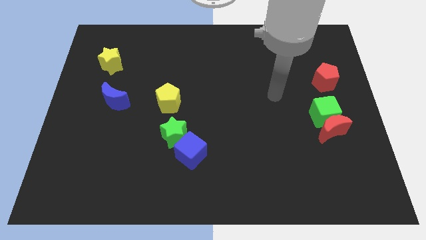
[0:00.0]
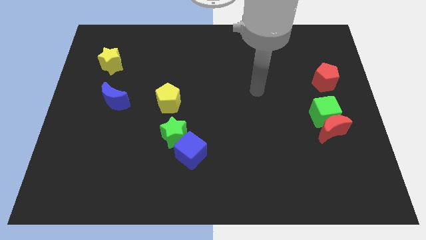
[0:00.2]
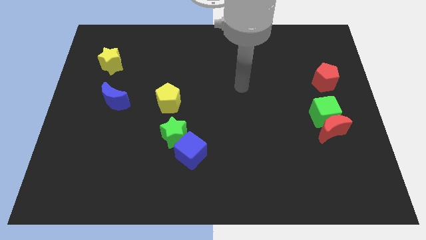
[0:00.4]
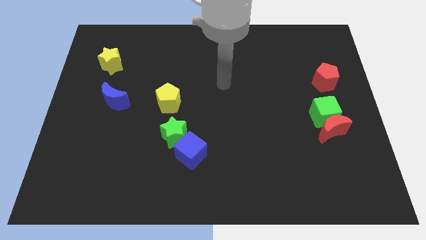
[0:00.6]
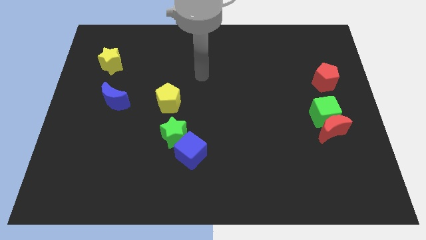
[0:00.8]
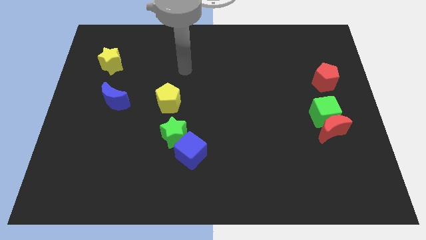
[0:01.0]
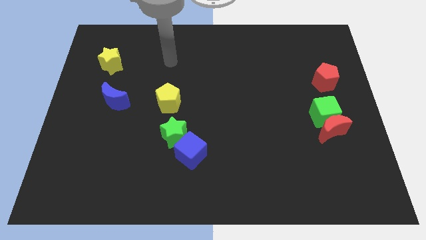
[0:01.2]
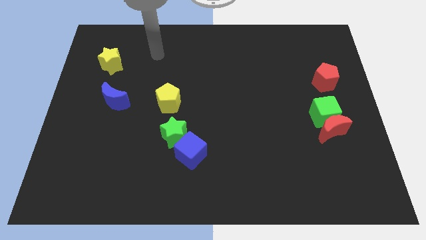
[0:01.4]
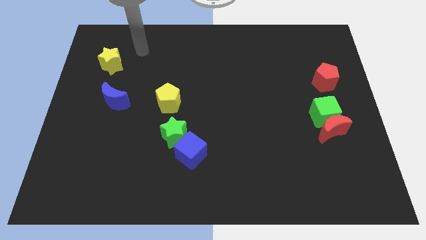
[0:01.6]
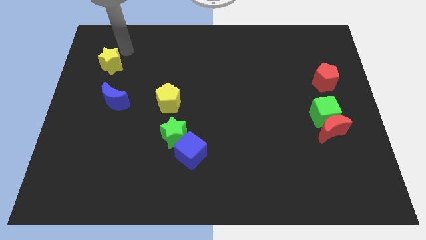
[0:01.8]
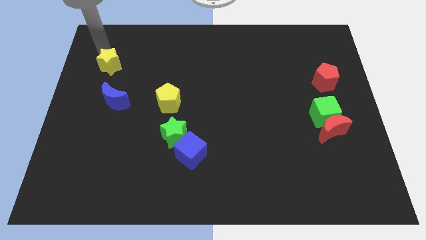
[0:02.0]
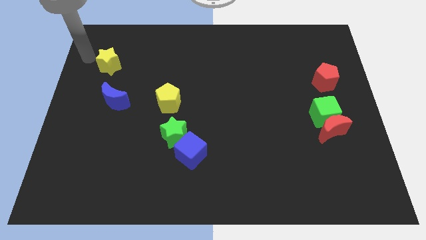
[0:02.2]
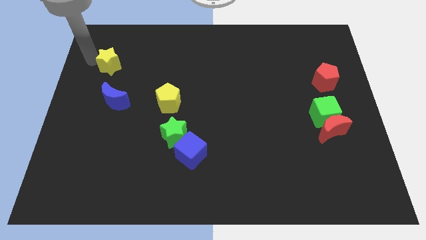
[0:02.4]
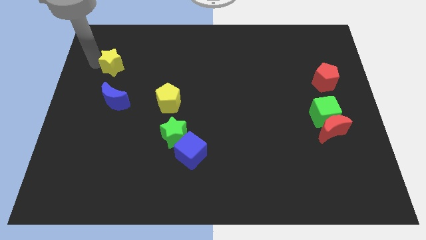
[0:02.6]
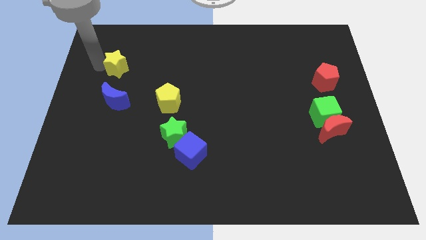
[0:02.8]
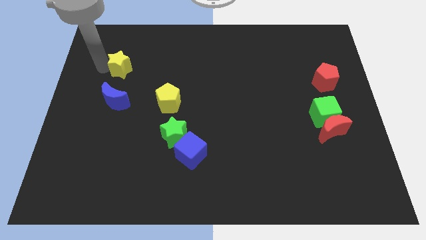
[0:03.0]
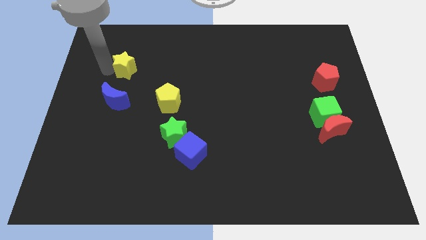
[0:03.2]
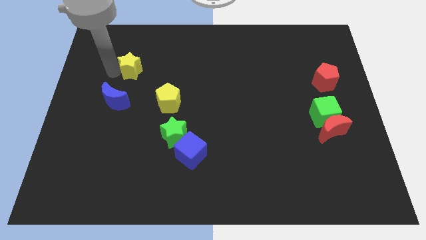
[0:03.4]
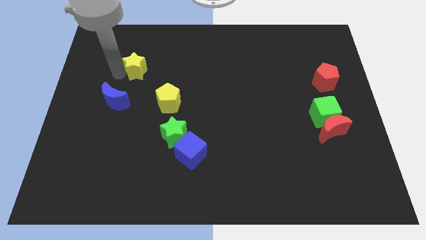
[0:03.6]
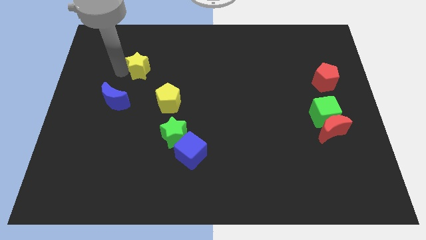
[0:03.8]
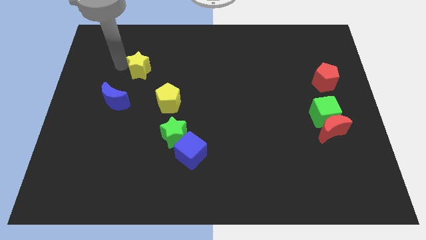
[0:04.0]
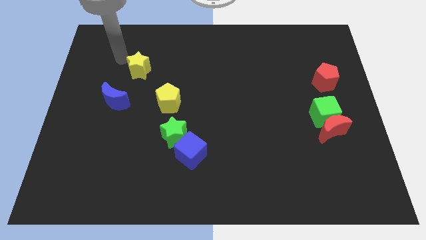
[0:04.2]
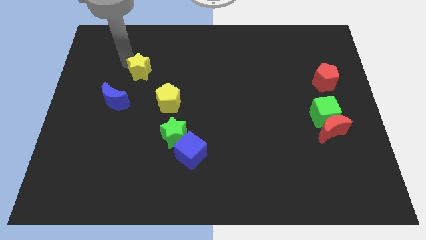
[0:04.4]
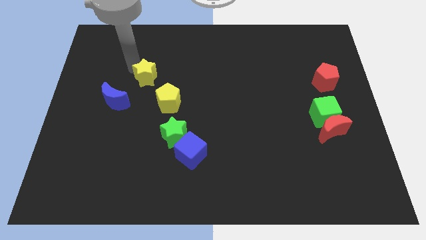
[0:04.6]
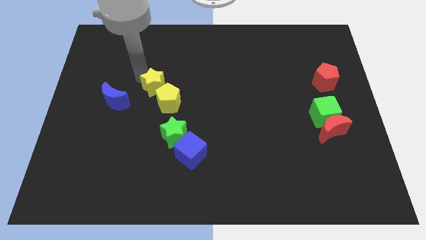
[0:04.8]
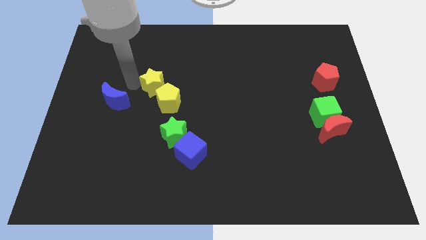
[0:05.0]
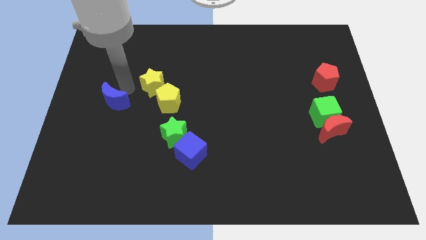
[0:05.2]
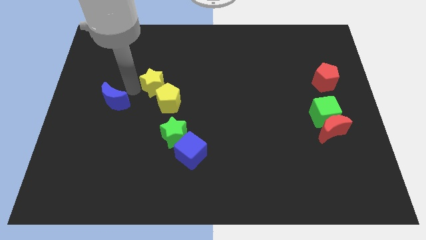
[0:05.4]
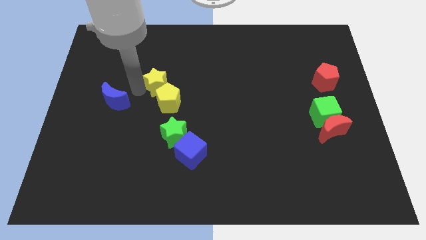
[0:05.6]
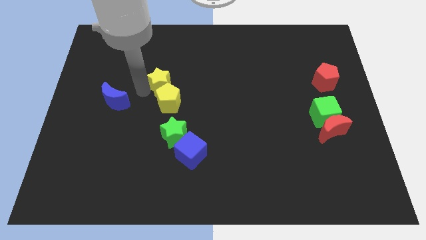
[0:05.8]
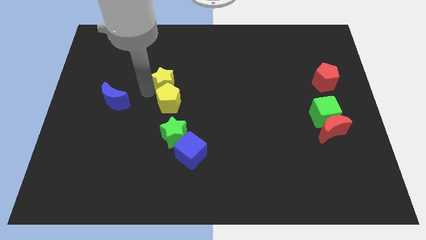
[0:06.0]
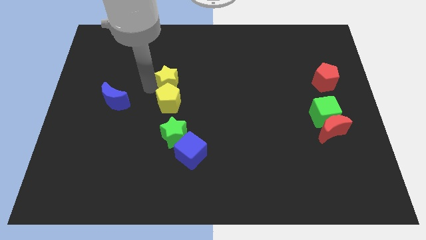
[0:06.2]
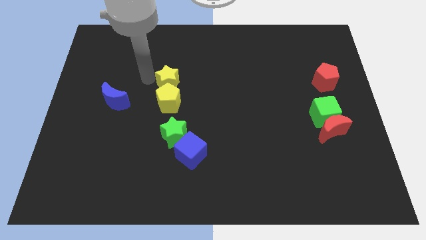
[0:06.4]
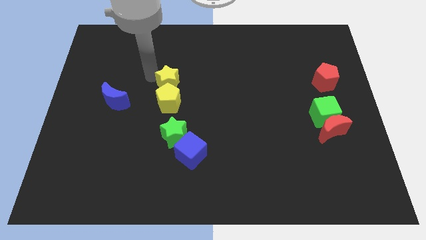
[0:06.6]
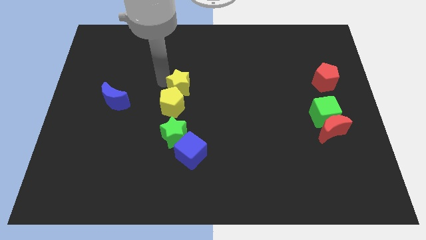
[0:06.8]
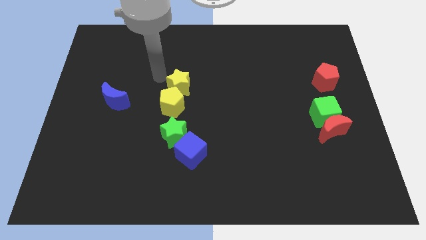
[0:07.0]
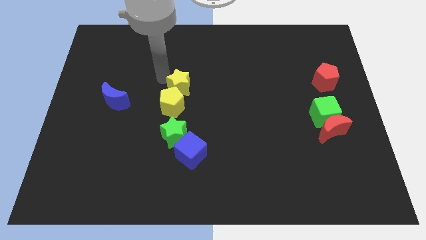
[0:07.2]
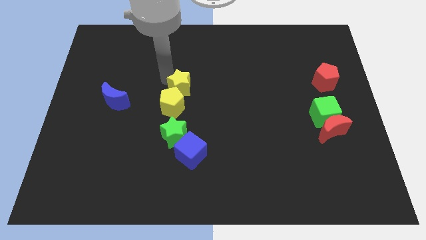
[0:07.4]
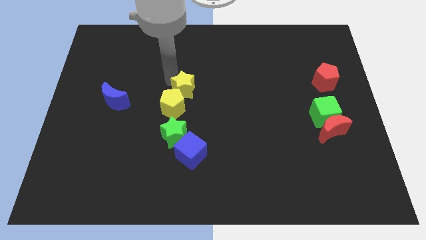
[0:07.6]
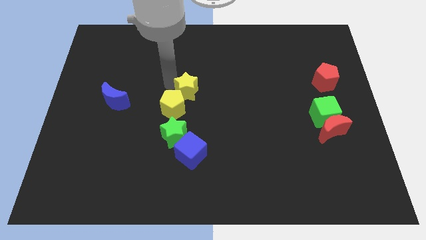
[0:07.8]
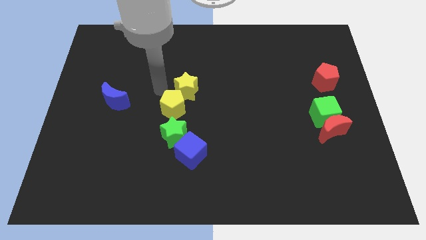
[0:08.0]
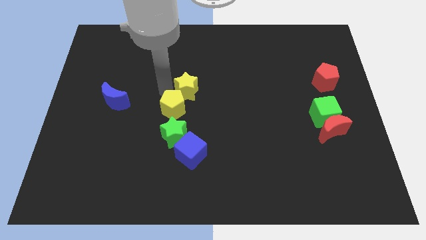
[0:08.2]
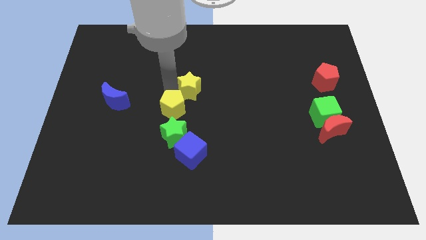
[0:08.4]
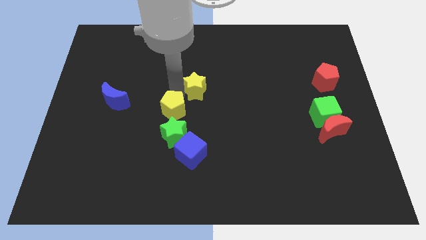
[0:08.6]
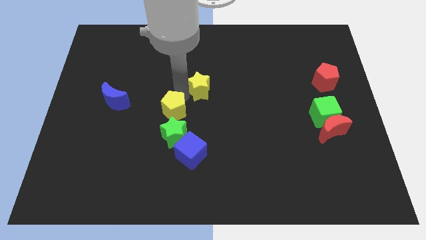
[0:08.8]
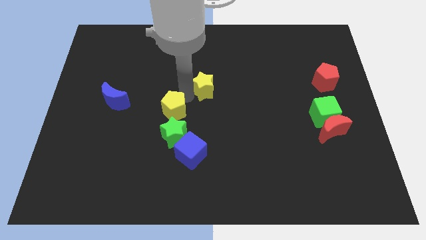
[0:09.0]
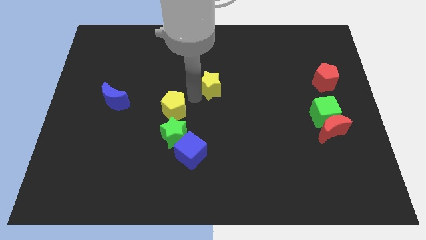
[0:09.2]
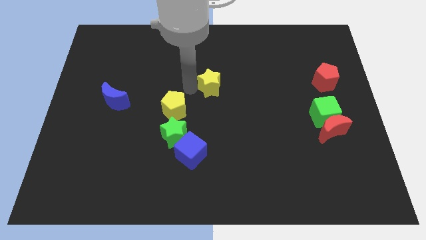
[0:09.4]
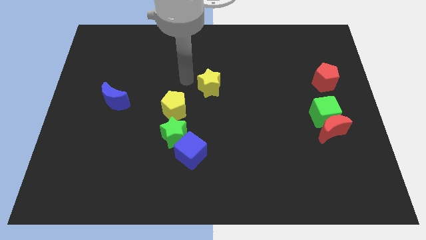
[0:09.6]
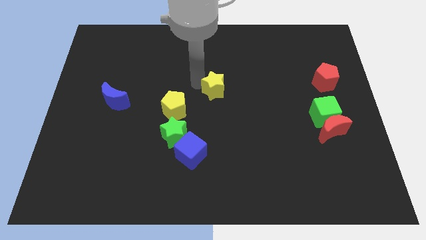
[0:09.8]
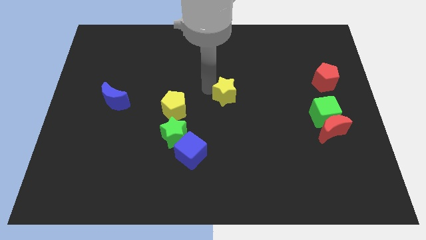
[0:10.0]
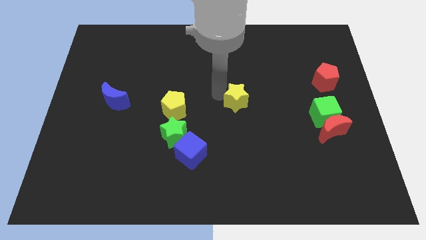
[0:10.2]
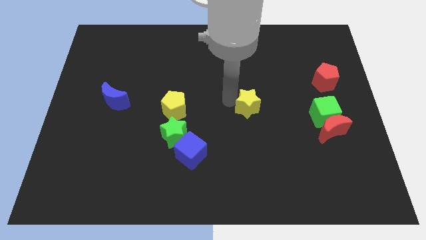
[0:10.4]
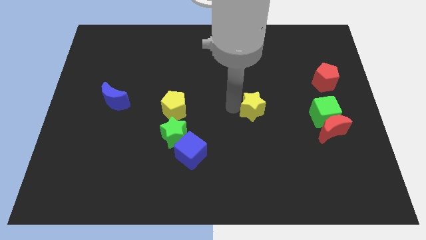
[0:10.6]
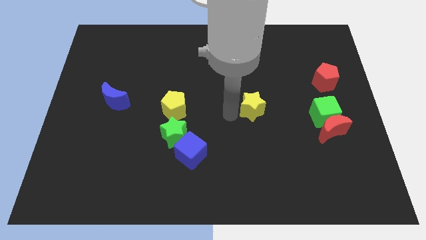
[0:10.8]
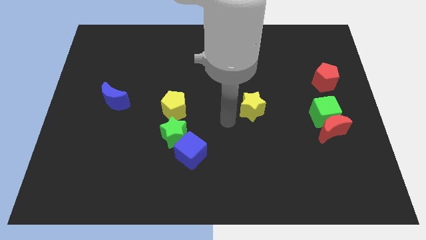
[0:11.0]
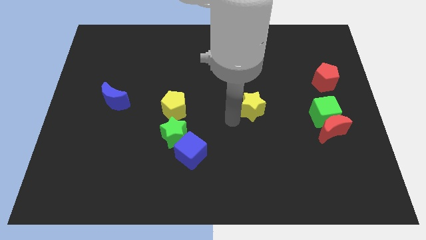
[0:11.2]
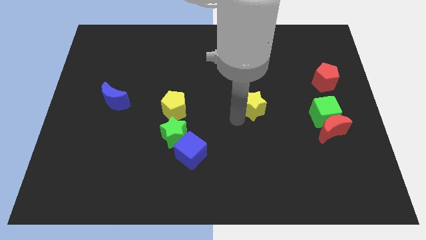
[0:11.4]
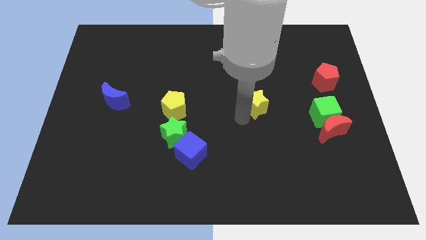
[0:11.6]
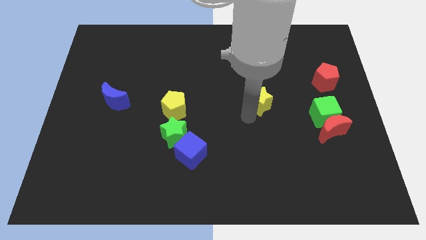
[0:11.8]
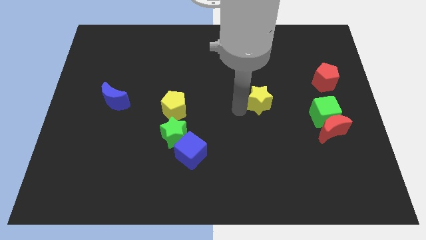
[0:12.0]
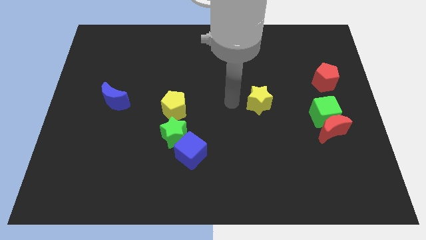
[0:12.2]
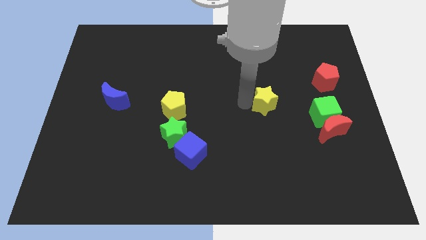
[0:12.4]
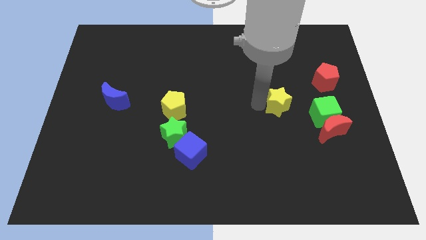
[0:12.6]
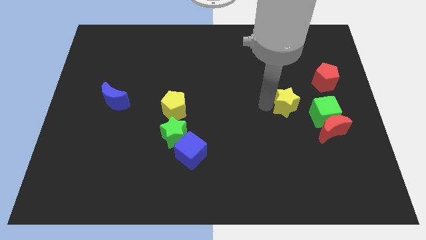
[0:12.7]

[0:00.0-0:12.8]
put the yellow star to the top left of the red moon

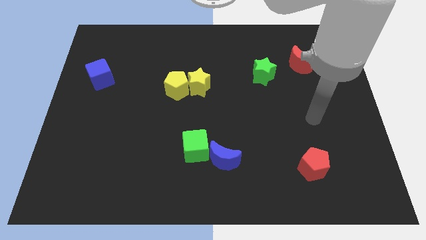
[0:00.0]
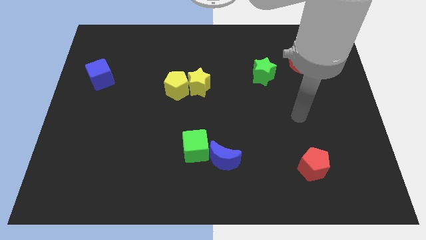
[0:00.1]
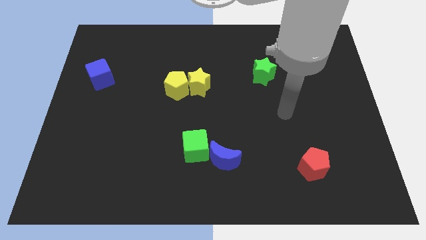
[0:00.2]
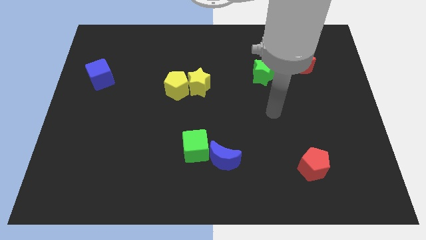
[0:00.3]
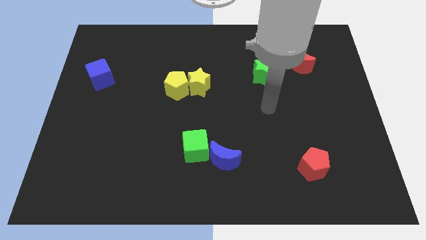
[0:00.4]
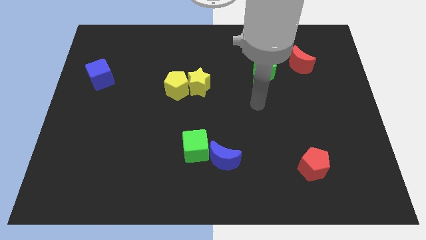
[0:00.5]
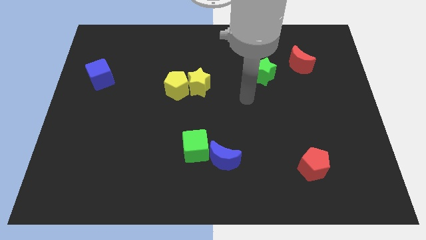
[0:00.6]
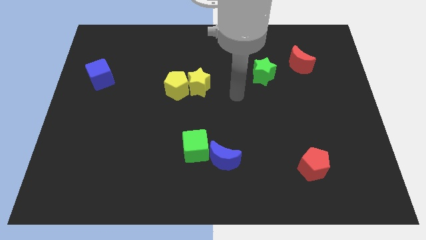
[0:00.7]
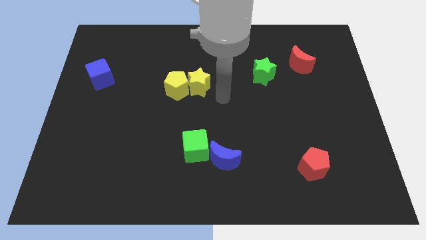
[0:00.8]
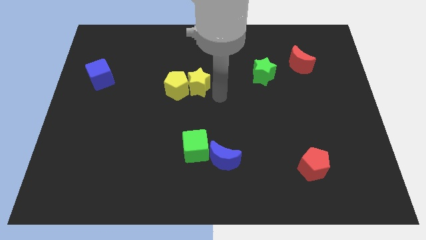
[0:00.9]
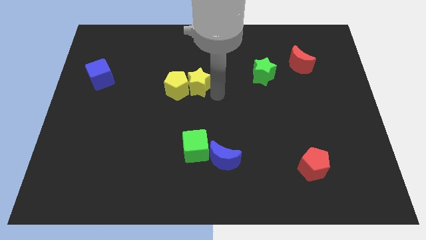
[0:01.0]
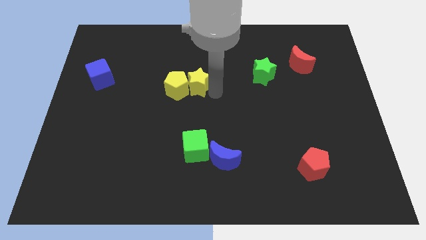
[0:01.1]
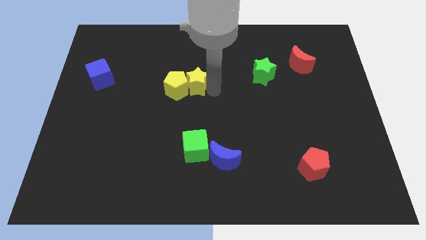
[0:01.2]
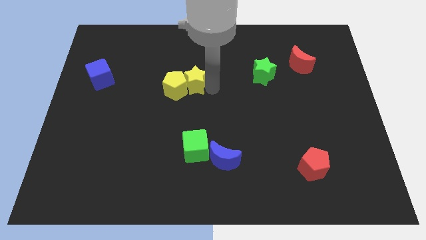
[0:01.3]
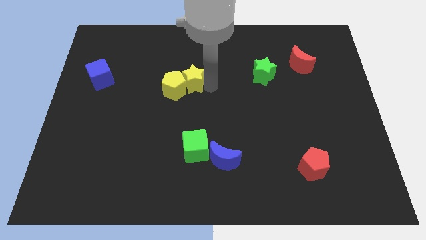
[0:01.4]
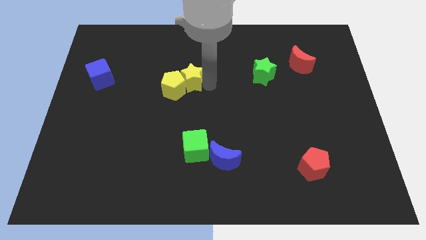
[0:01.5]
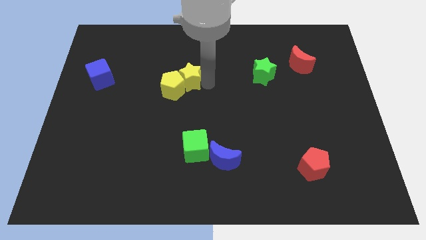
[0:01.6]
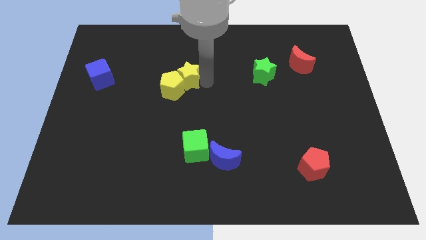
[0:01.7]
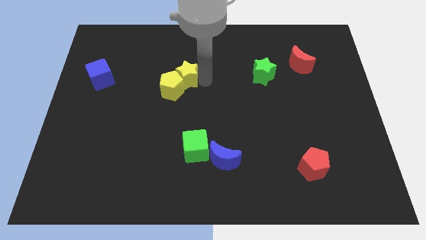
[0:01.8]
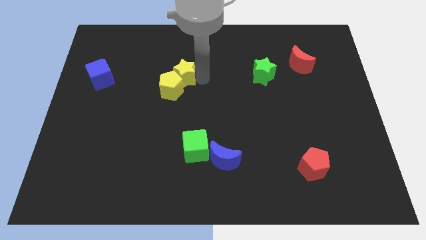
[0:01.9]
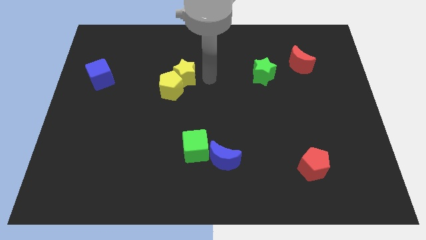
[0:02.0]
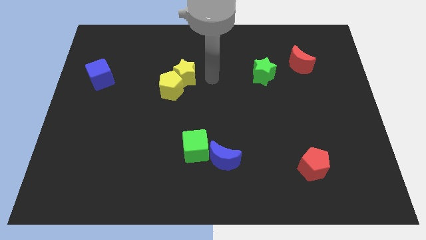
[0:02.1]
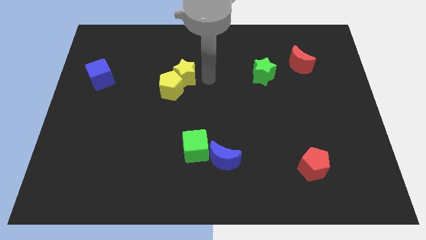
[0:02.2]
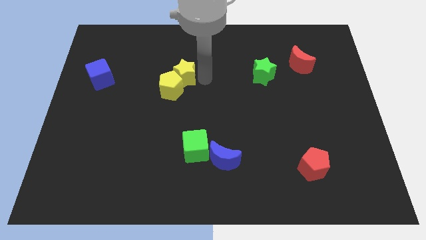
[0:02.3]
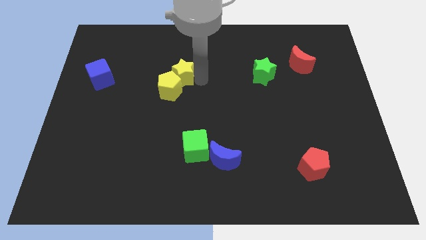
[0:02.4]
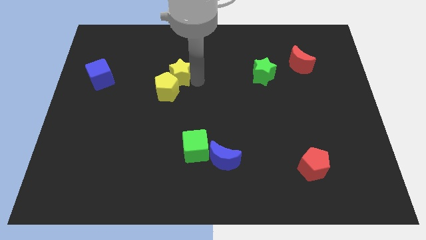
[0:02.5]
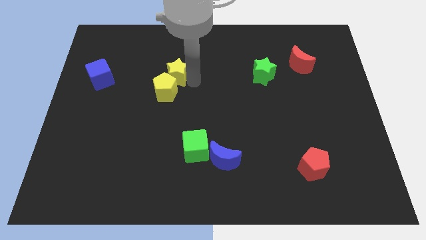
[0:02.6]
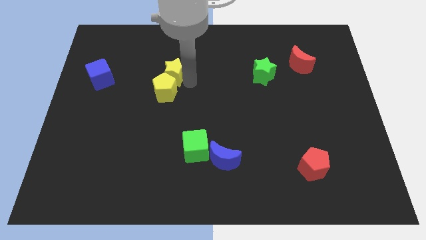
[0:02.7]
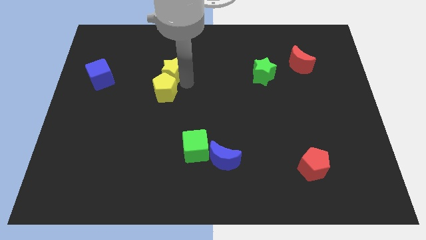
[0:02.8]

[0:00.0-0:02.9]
push the yellow star to the top left side of the yellow pentagon
